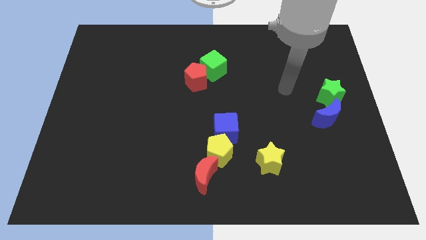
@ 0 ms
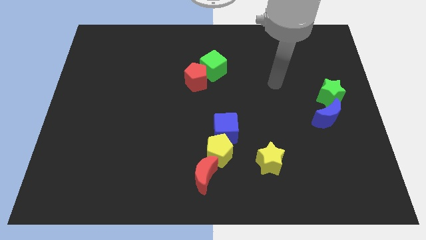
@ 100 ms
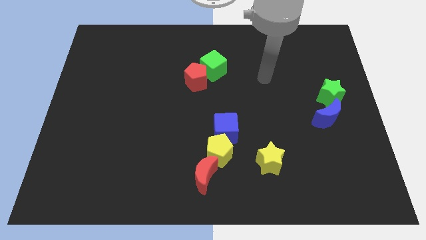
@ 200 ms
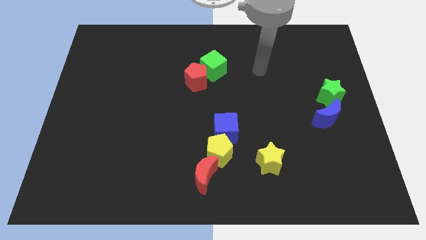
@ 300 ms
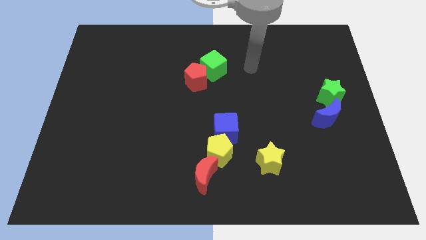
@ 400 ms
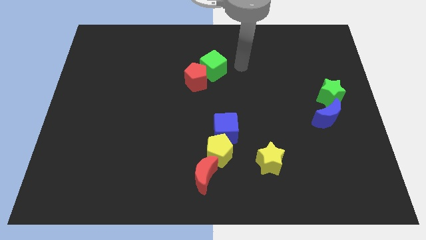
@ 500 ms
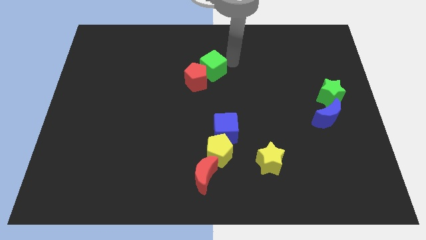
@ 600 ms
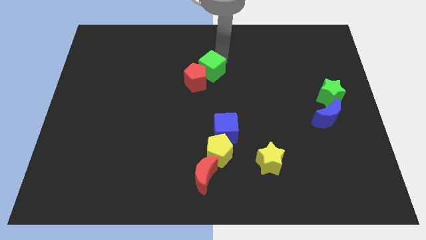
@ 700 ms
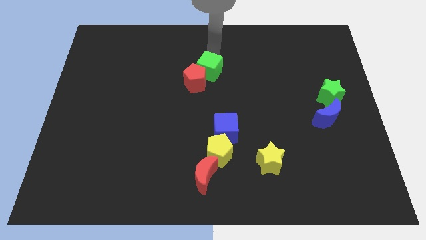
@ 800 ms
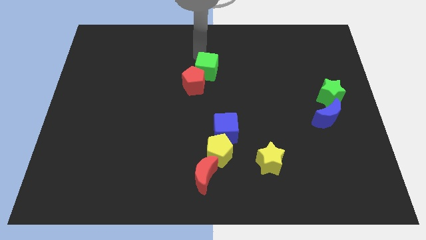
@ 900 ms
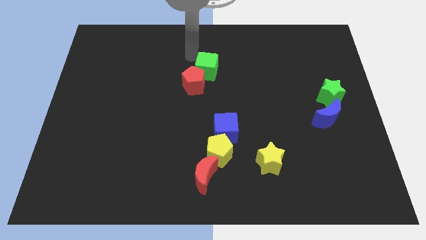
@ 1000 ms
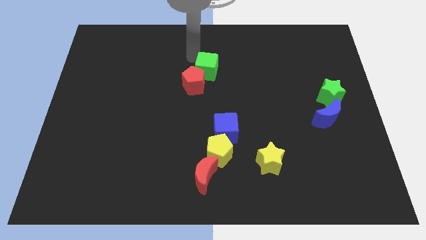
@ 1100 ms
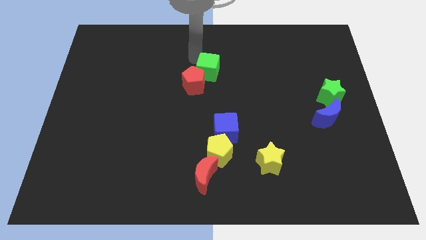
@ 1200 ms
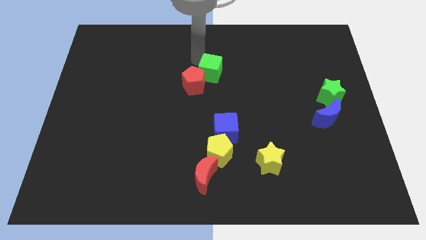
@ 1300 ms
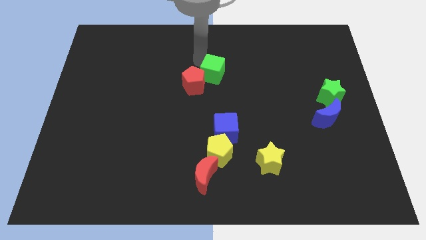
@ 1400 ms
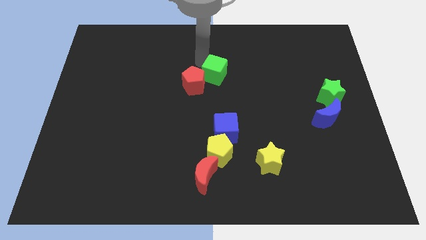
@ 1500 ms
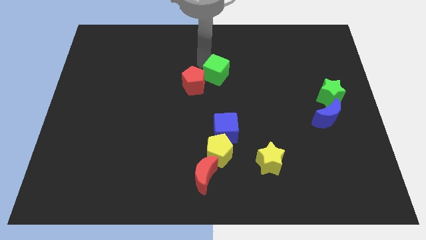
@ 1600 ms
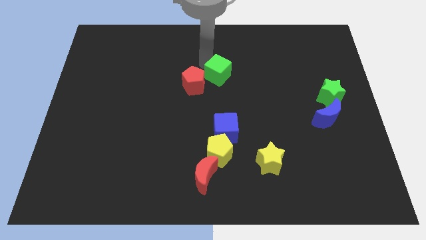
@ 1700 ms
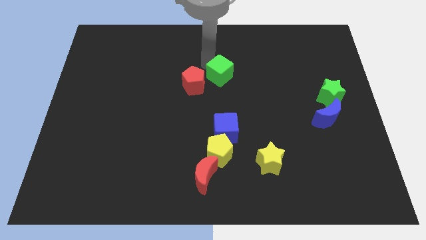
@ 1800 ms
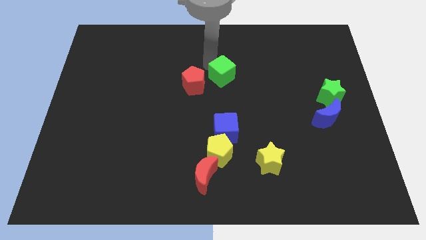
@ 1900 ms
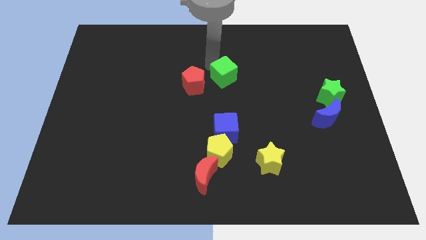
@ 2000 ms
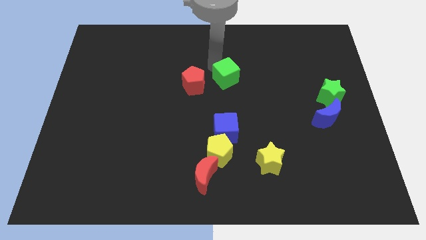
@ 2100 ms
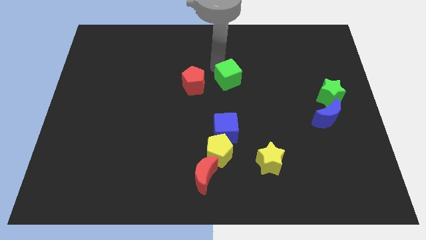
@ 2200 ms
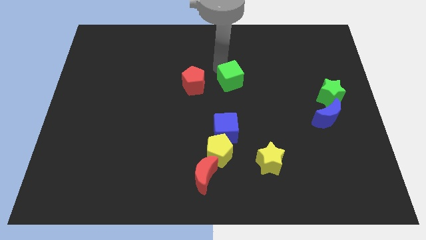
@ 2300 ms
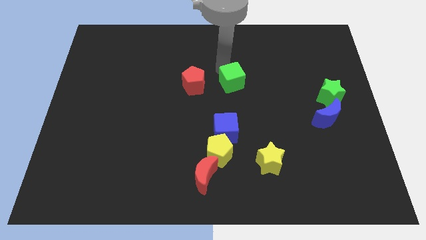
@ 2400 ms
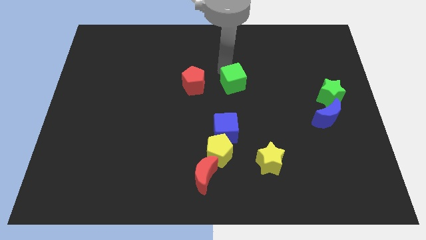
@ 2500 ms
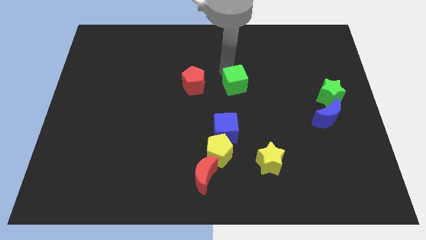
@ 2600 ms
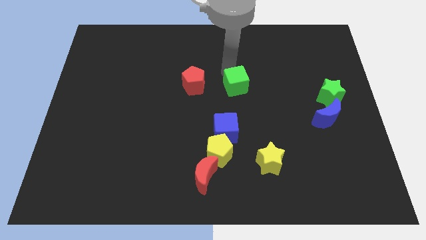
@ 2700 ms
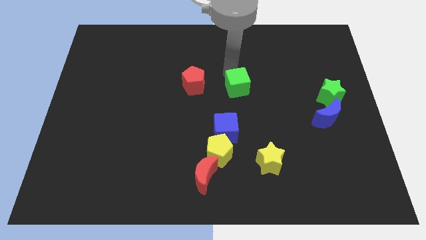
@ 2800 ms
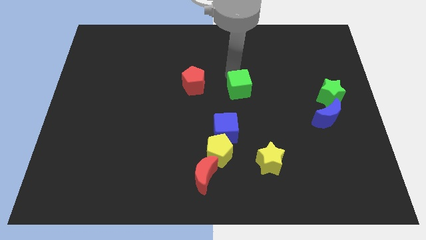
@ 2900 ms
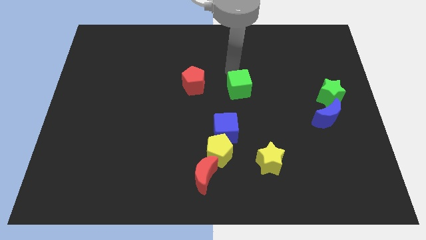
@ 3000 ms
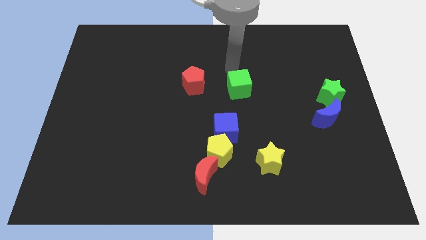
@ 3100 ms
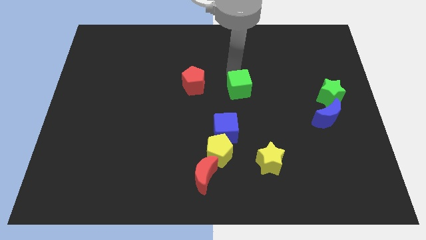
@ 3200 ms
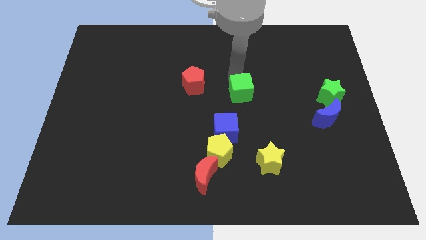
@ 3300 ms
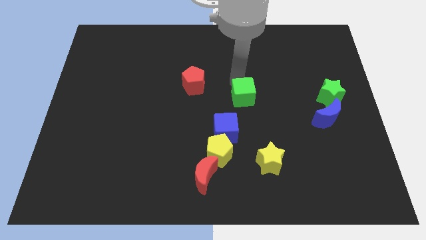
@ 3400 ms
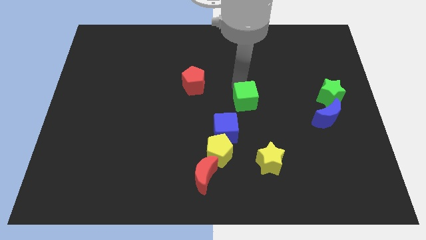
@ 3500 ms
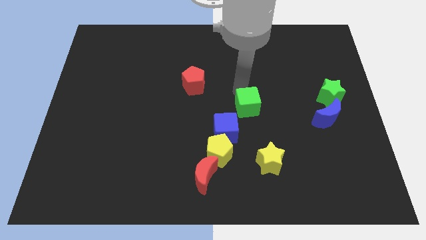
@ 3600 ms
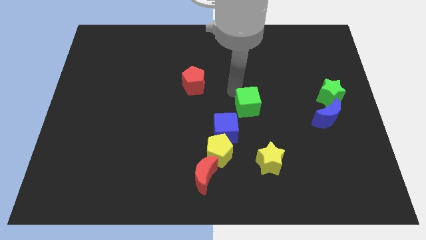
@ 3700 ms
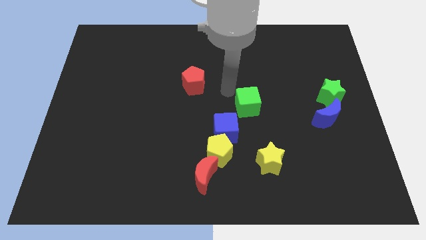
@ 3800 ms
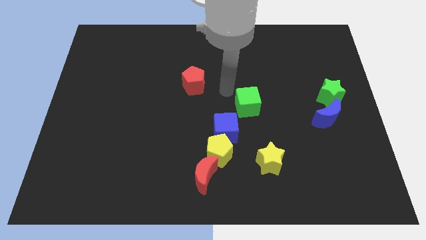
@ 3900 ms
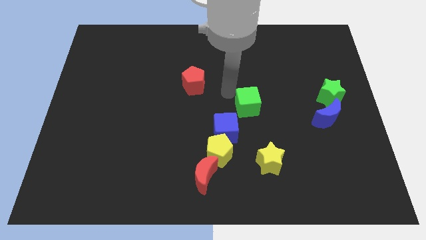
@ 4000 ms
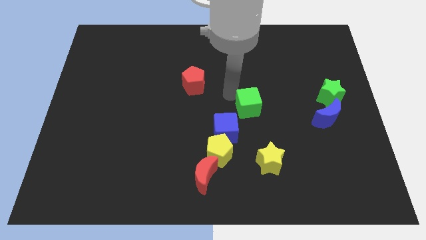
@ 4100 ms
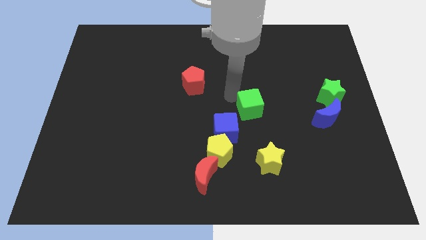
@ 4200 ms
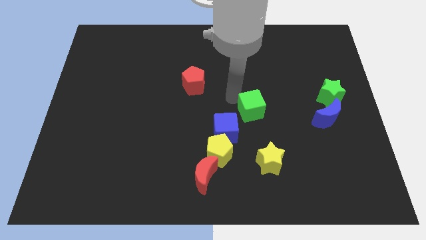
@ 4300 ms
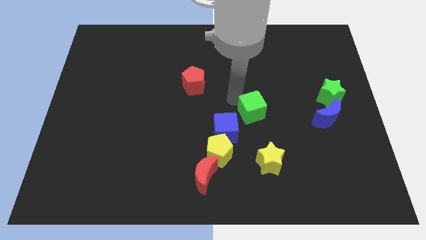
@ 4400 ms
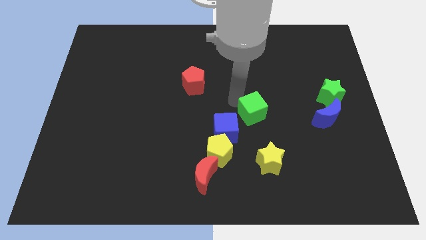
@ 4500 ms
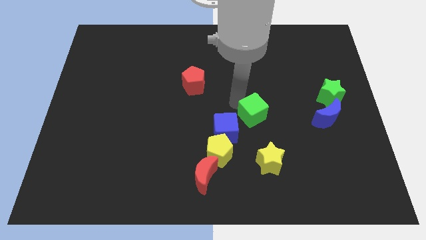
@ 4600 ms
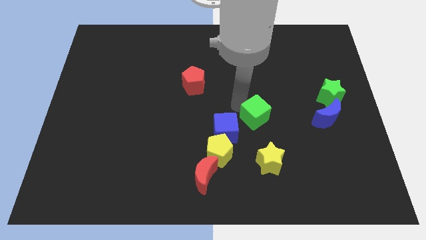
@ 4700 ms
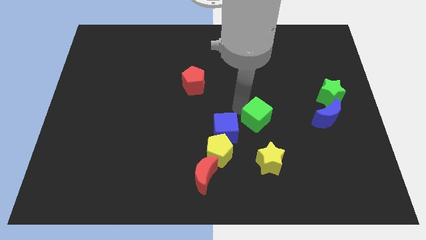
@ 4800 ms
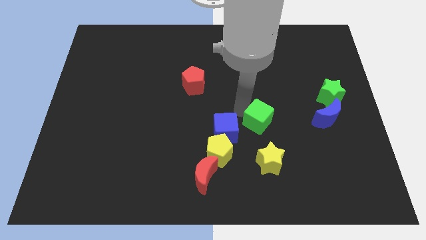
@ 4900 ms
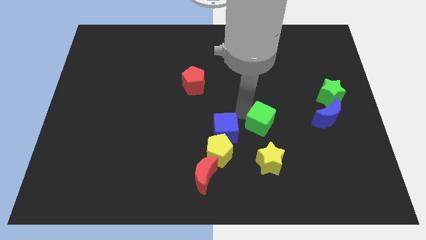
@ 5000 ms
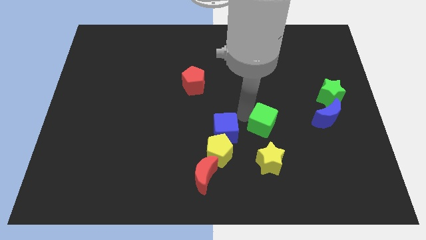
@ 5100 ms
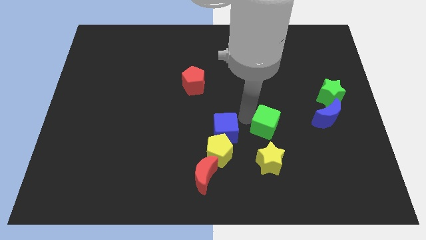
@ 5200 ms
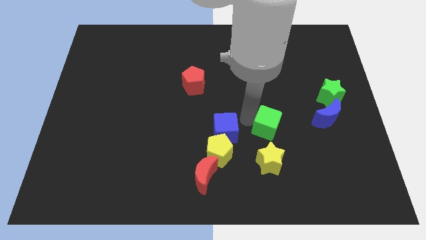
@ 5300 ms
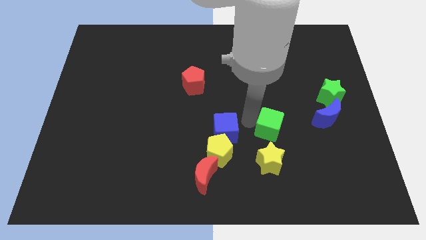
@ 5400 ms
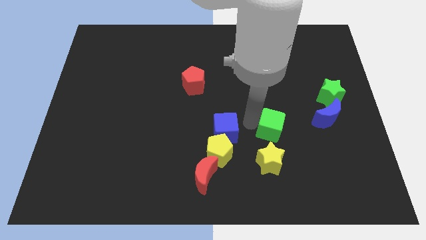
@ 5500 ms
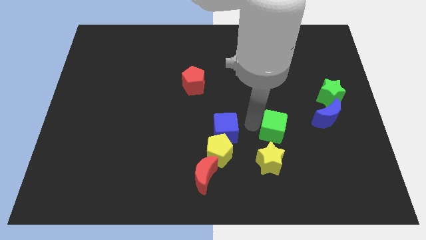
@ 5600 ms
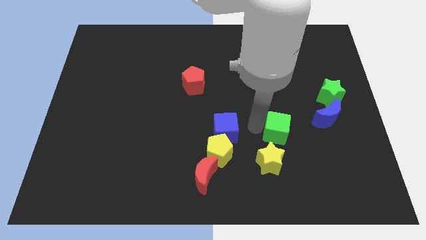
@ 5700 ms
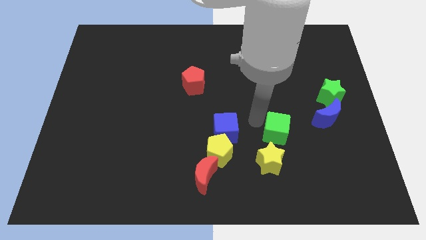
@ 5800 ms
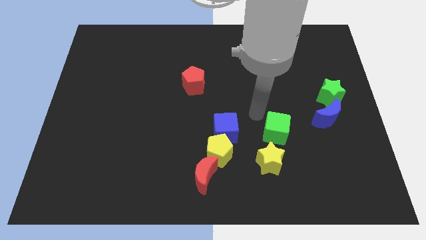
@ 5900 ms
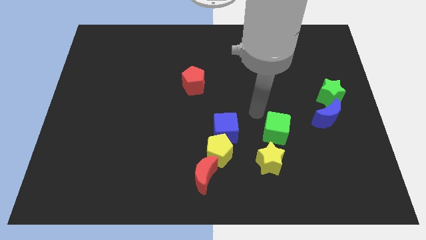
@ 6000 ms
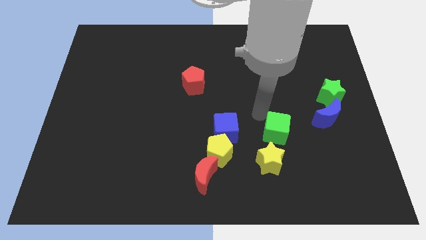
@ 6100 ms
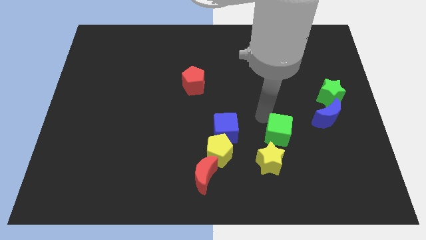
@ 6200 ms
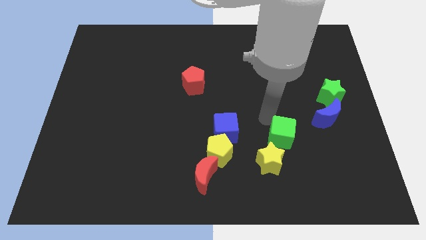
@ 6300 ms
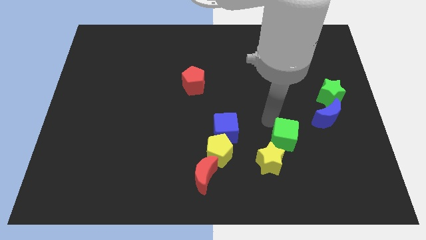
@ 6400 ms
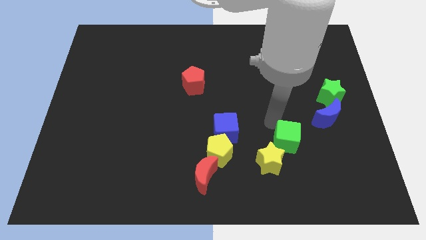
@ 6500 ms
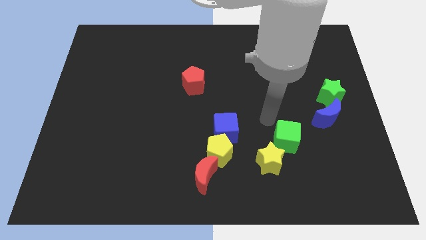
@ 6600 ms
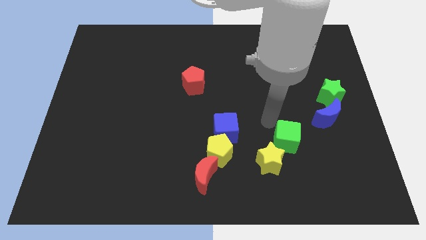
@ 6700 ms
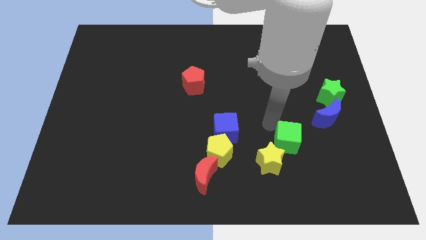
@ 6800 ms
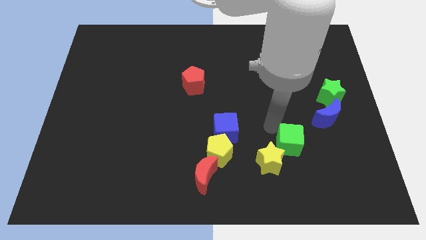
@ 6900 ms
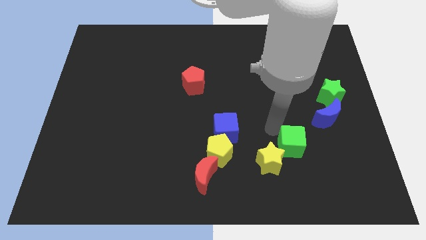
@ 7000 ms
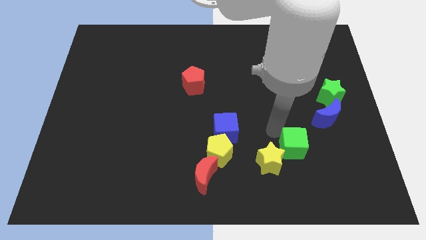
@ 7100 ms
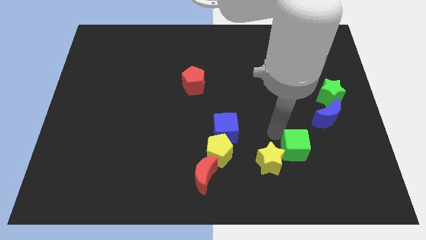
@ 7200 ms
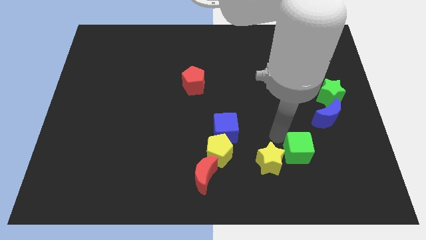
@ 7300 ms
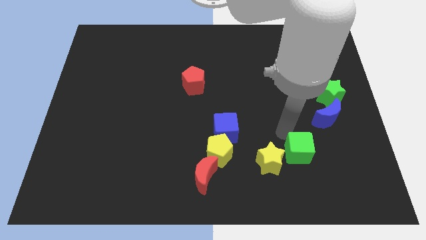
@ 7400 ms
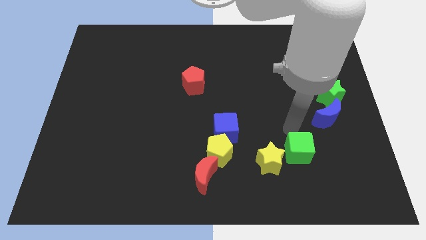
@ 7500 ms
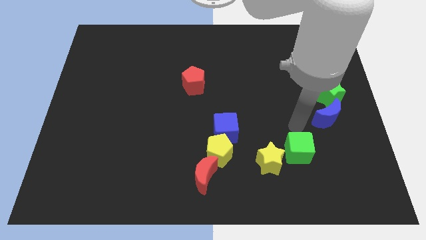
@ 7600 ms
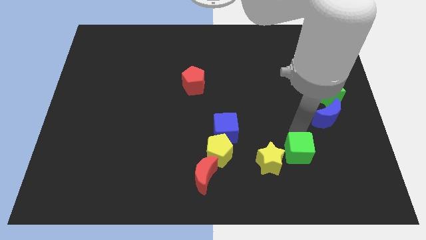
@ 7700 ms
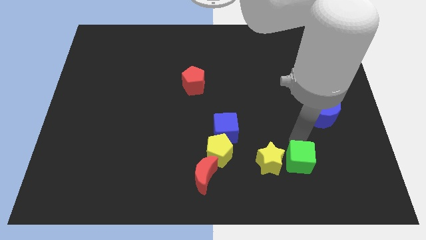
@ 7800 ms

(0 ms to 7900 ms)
move the green cube diagonally down and to the right of the yellow star

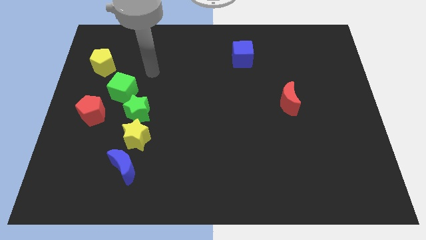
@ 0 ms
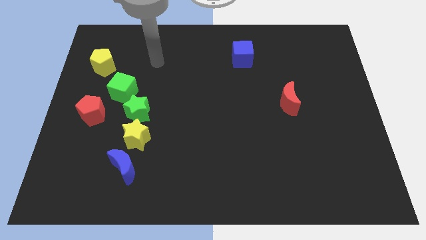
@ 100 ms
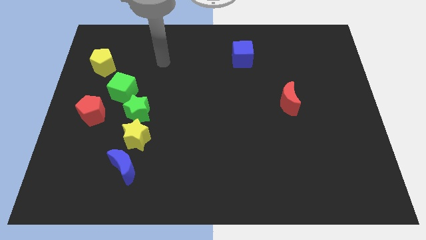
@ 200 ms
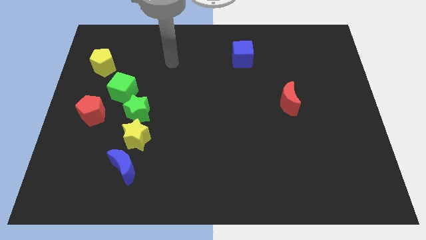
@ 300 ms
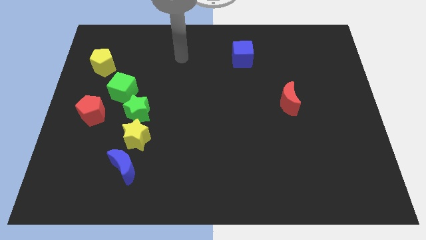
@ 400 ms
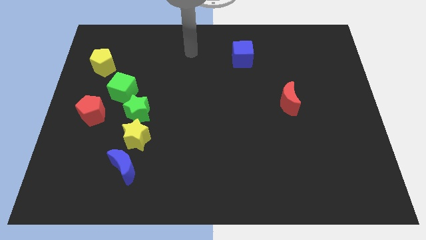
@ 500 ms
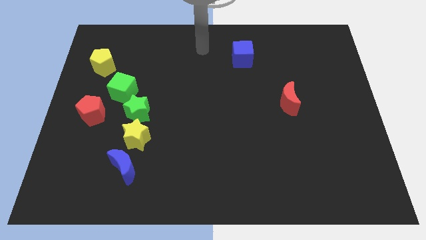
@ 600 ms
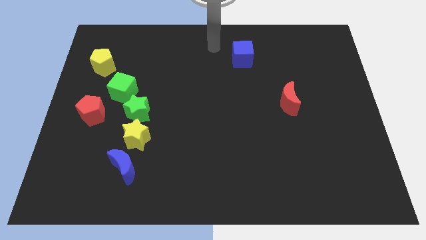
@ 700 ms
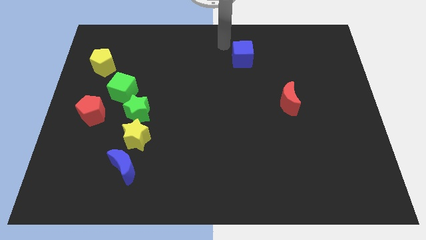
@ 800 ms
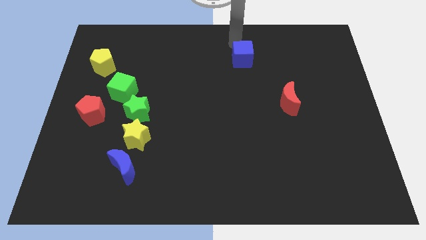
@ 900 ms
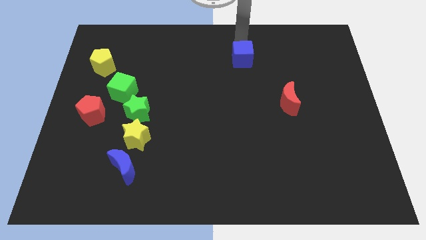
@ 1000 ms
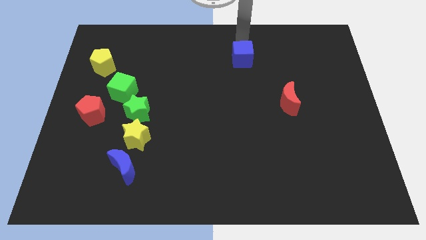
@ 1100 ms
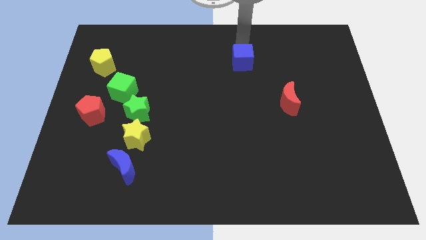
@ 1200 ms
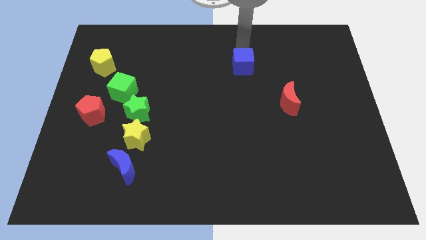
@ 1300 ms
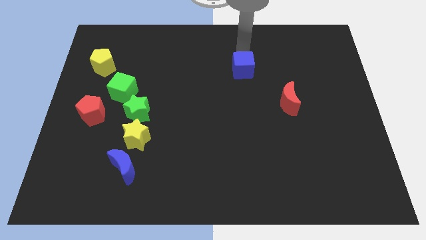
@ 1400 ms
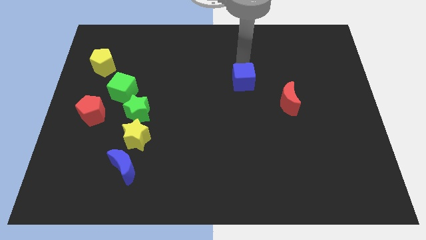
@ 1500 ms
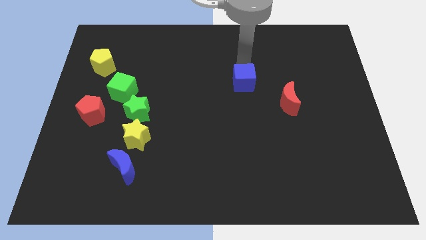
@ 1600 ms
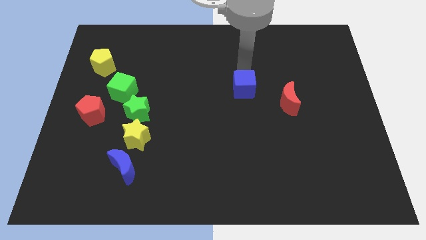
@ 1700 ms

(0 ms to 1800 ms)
push the blue cube left of the red moon
